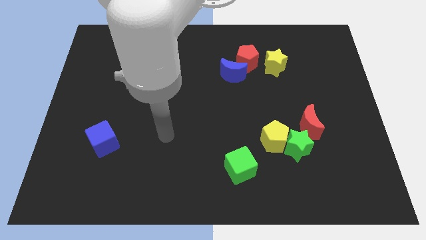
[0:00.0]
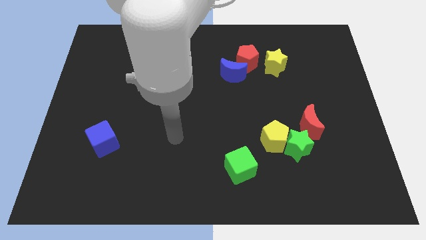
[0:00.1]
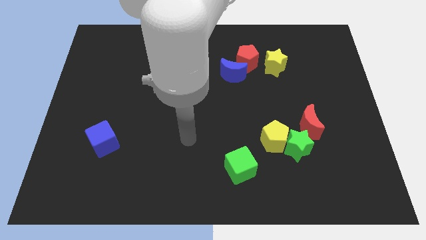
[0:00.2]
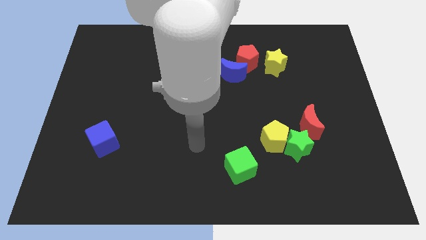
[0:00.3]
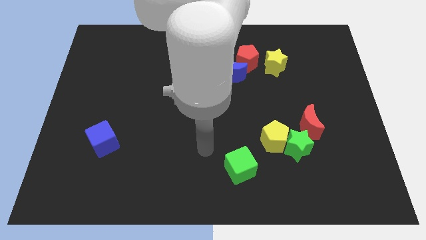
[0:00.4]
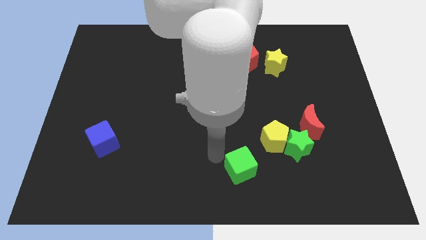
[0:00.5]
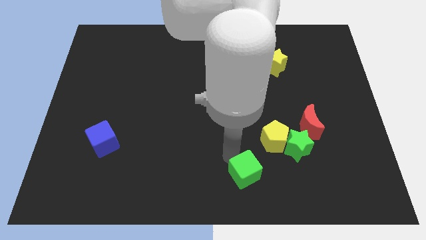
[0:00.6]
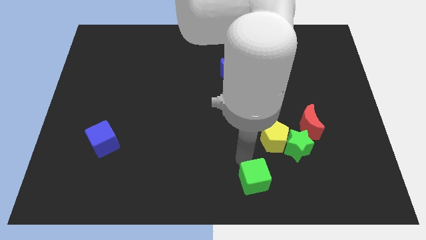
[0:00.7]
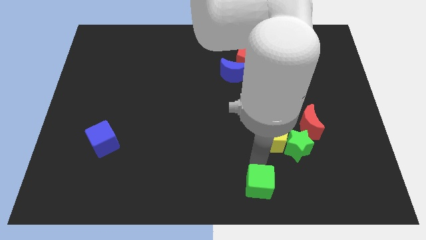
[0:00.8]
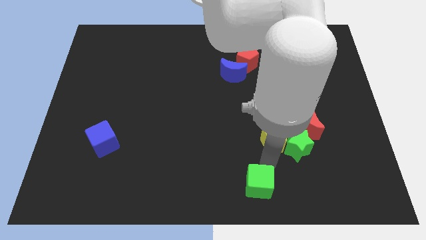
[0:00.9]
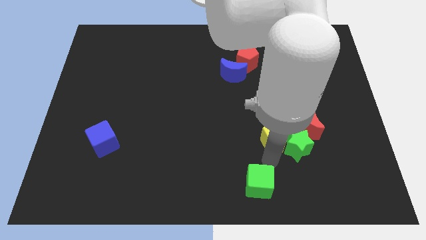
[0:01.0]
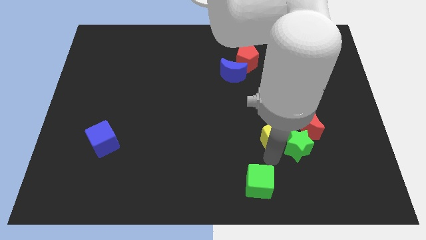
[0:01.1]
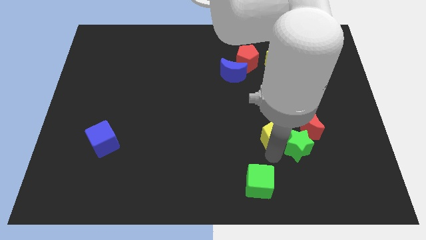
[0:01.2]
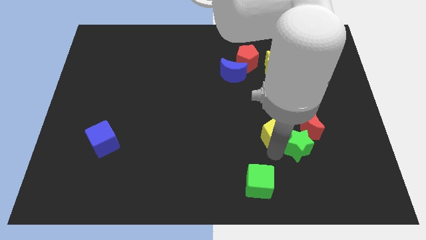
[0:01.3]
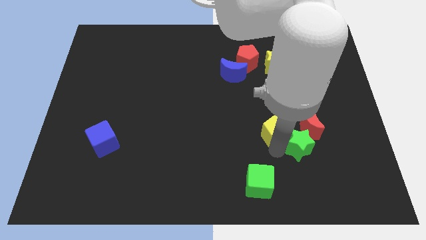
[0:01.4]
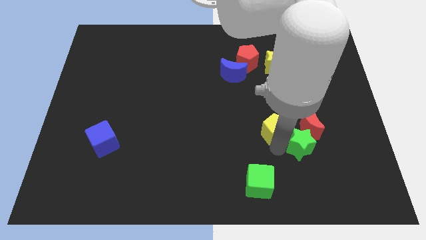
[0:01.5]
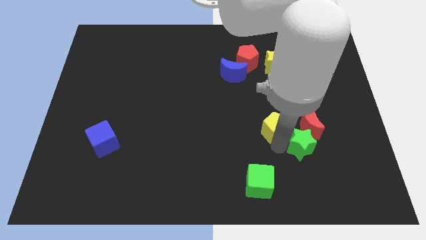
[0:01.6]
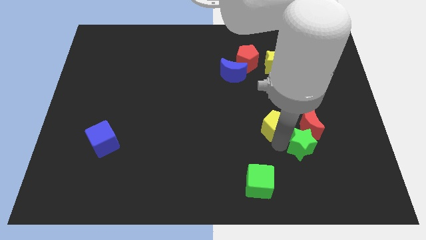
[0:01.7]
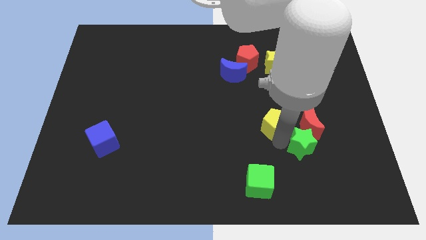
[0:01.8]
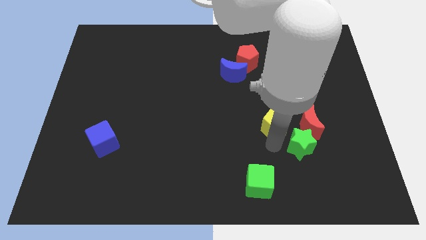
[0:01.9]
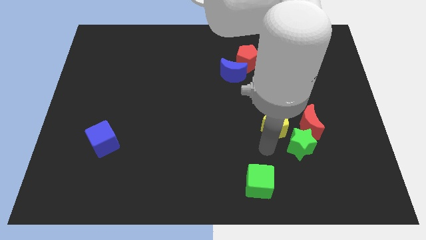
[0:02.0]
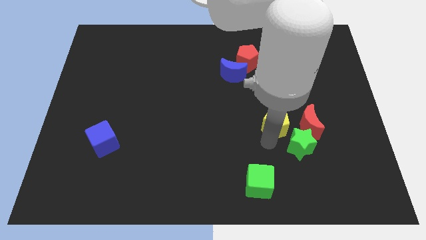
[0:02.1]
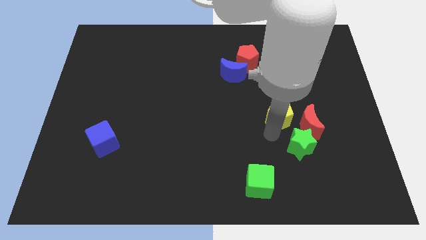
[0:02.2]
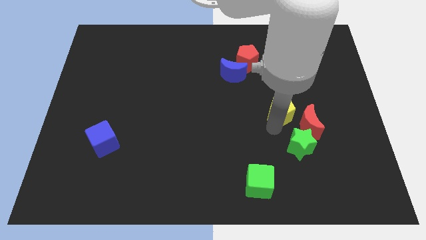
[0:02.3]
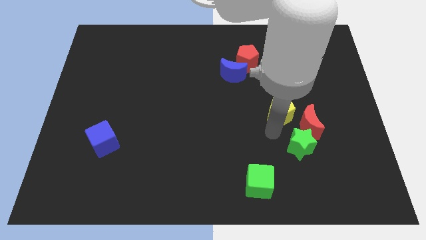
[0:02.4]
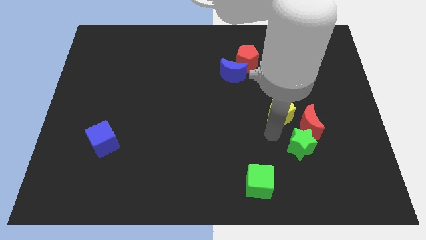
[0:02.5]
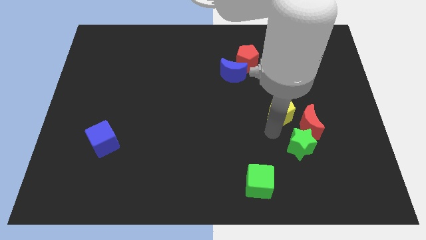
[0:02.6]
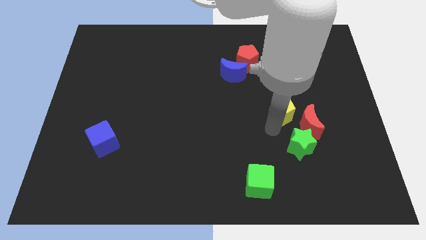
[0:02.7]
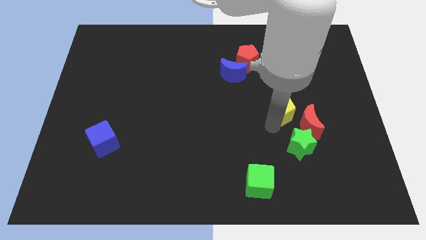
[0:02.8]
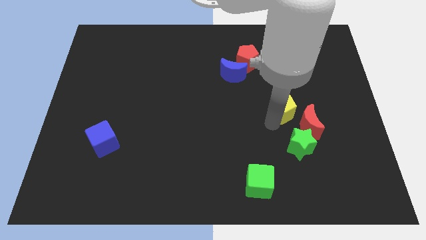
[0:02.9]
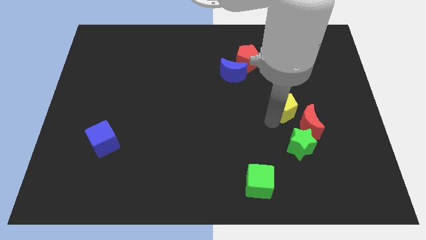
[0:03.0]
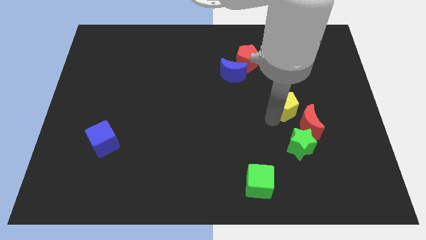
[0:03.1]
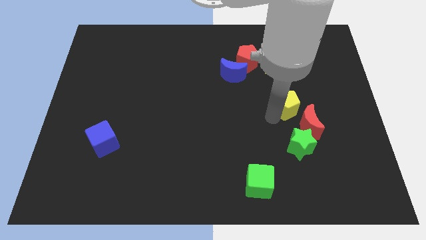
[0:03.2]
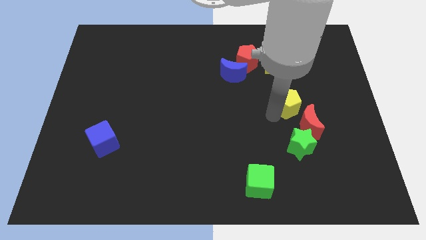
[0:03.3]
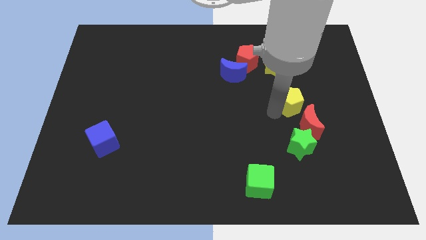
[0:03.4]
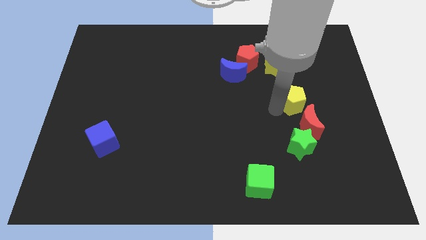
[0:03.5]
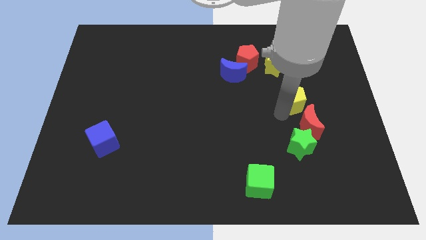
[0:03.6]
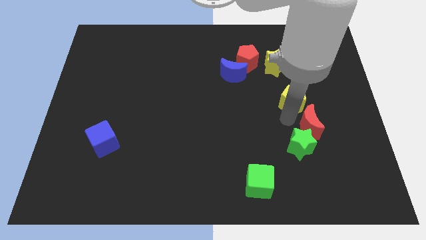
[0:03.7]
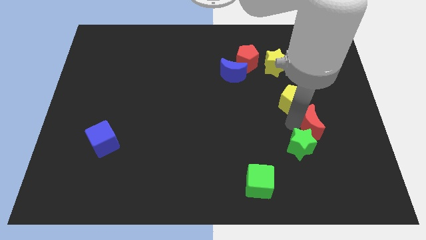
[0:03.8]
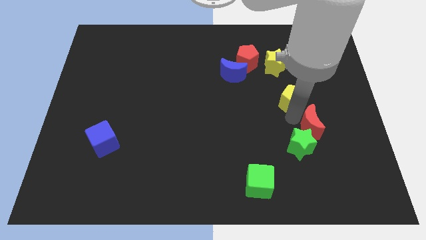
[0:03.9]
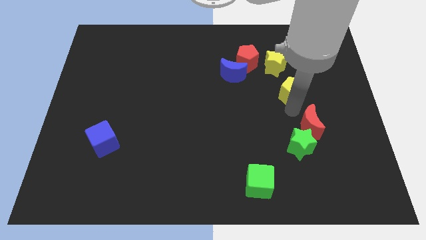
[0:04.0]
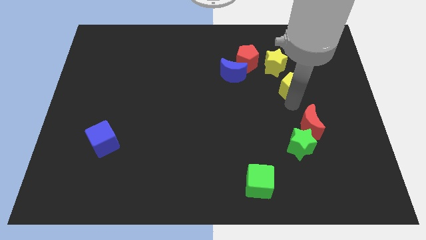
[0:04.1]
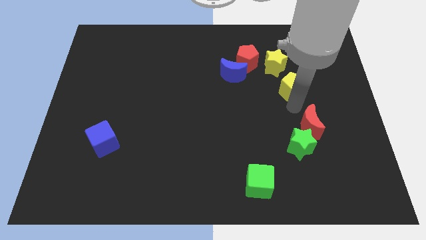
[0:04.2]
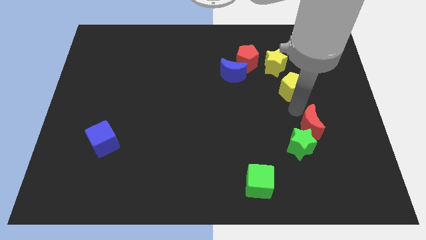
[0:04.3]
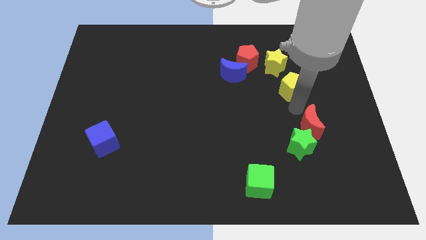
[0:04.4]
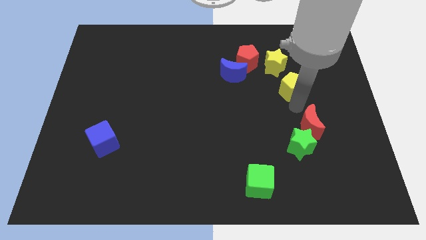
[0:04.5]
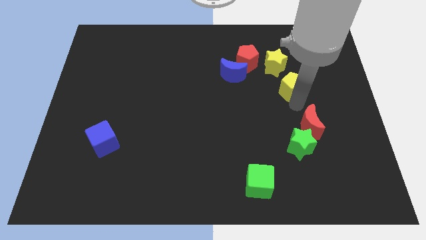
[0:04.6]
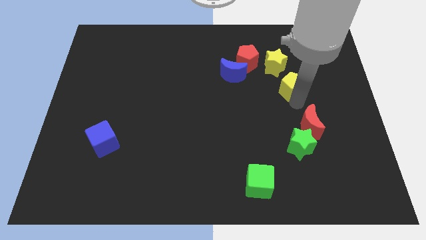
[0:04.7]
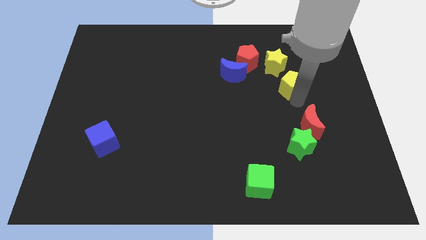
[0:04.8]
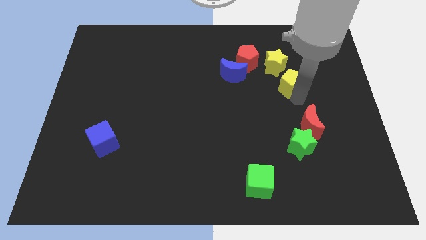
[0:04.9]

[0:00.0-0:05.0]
put the yellow pentagon to the right of the blue moon

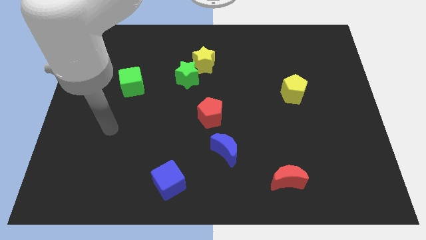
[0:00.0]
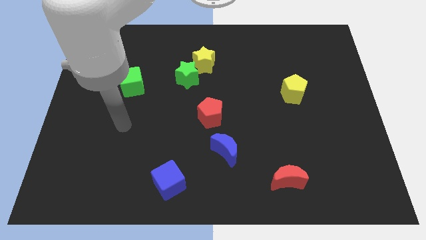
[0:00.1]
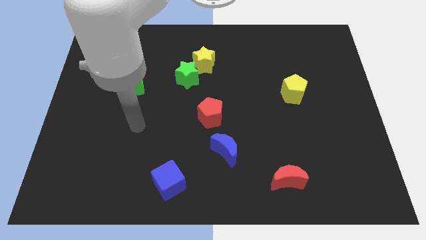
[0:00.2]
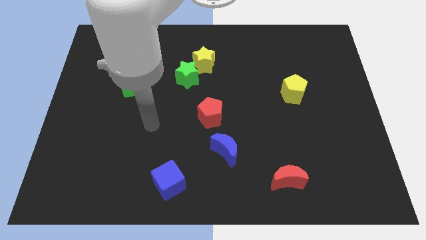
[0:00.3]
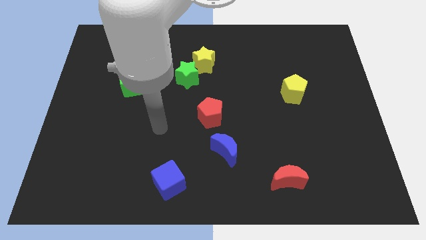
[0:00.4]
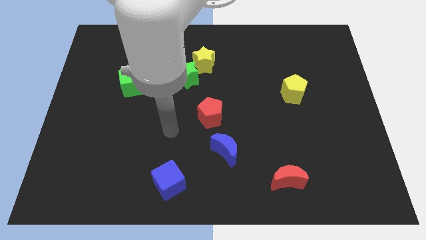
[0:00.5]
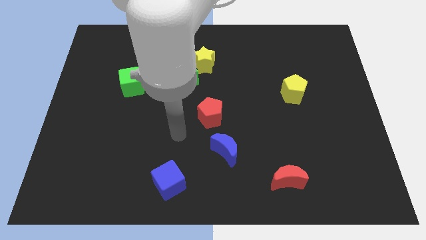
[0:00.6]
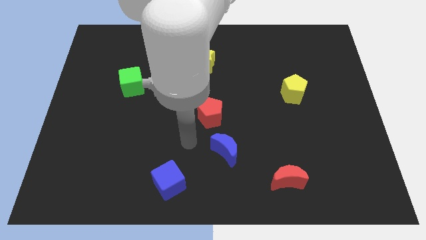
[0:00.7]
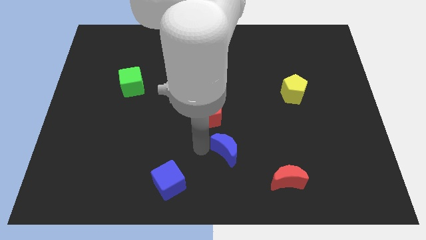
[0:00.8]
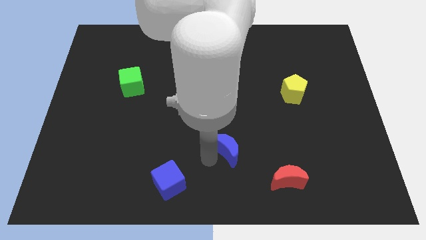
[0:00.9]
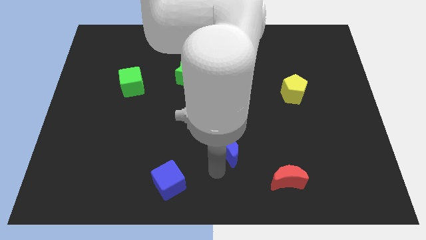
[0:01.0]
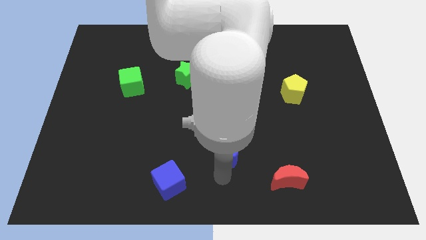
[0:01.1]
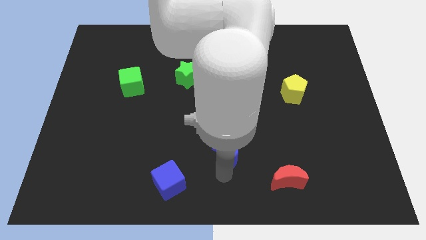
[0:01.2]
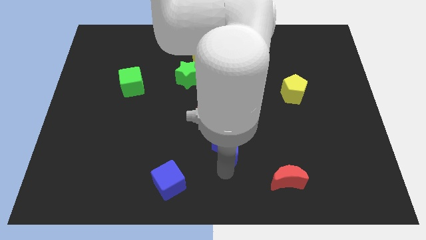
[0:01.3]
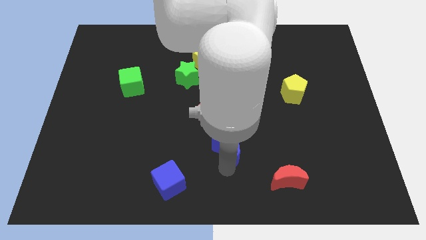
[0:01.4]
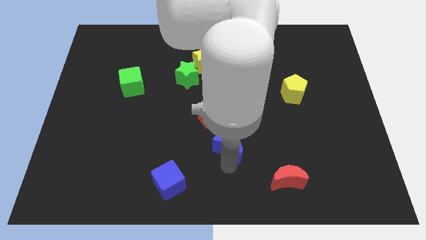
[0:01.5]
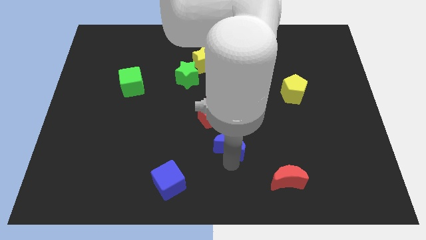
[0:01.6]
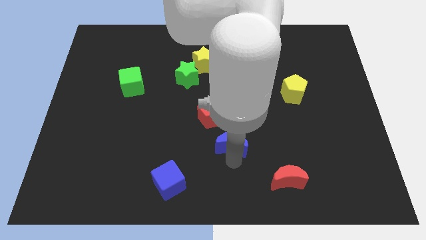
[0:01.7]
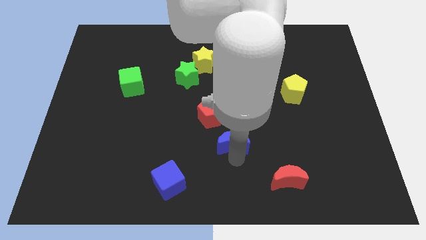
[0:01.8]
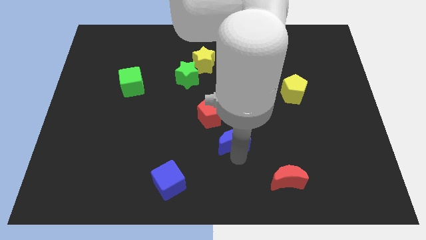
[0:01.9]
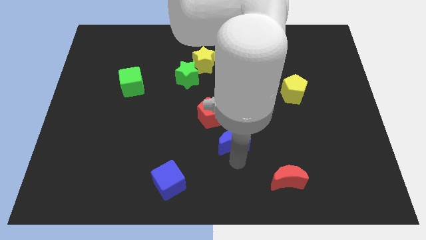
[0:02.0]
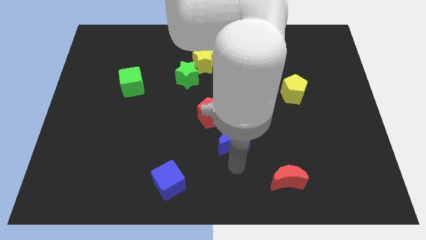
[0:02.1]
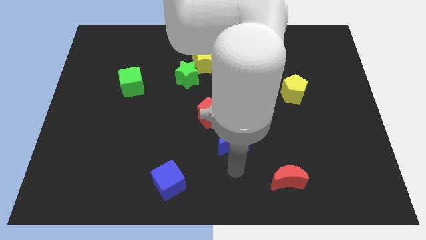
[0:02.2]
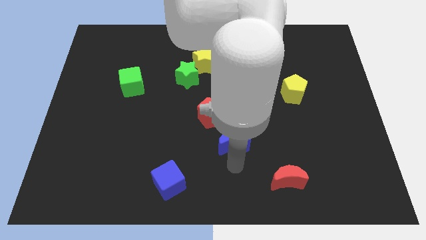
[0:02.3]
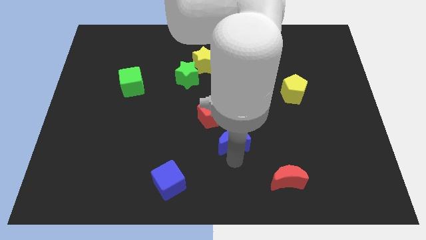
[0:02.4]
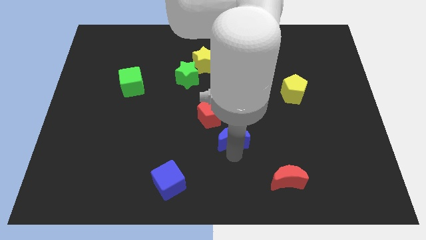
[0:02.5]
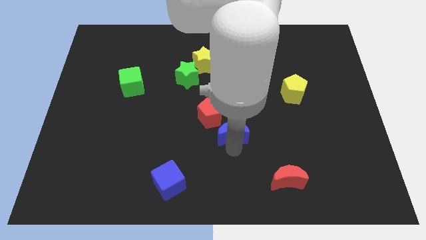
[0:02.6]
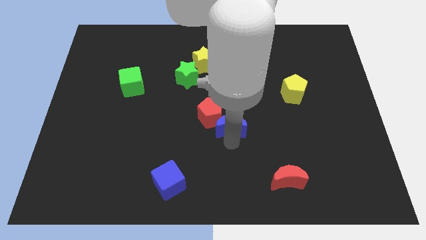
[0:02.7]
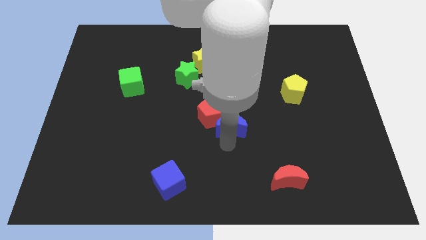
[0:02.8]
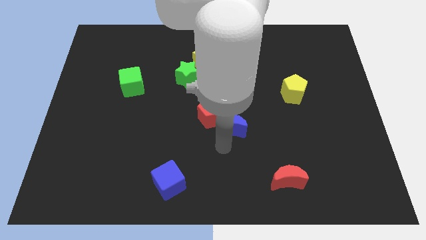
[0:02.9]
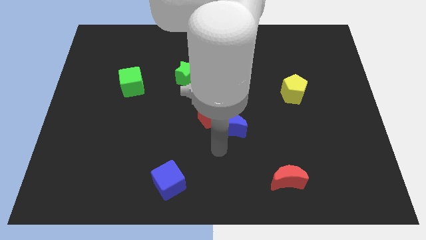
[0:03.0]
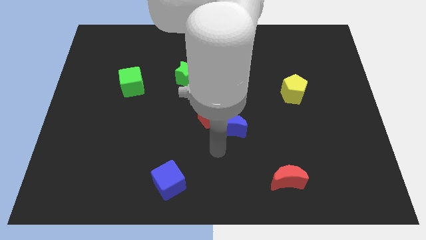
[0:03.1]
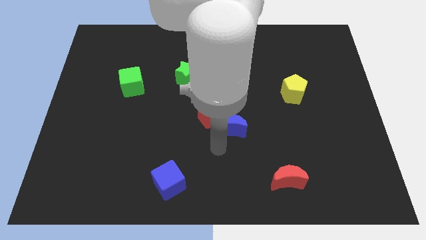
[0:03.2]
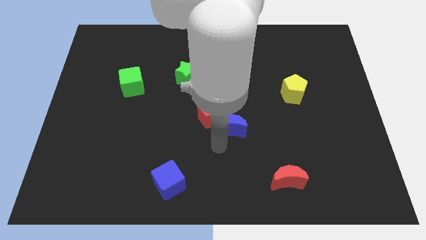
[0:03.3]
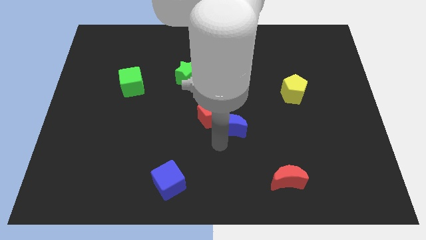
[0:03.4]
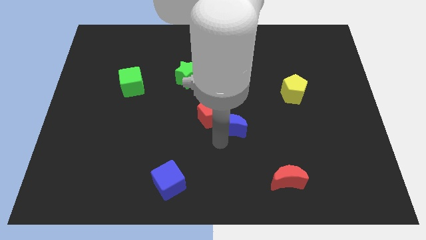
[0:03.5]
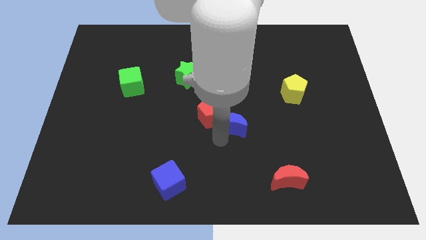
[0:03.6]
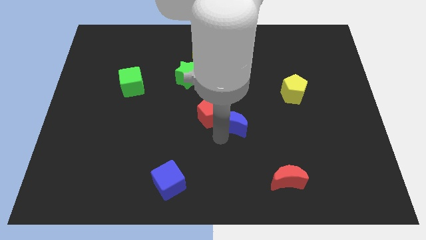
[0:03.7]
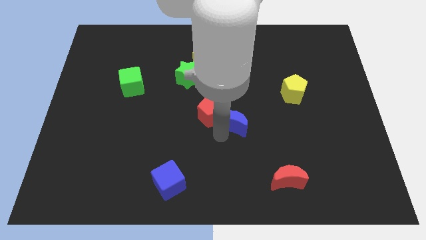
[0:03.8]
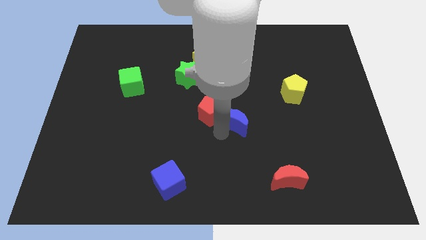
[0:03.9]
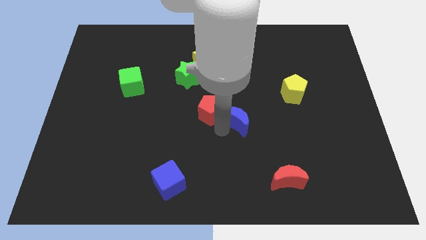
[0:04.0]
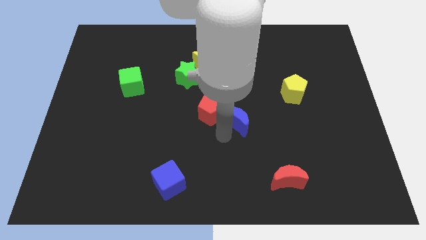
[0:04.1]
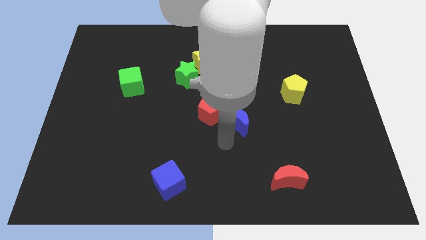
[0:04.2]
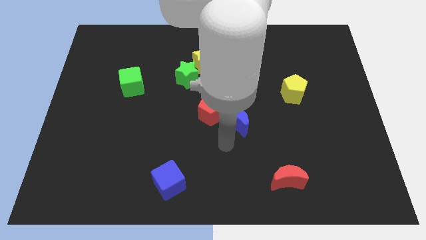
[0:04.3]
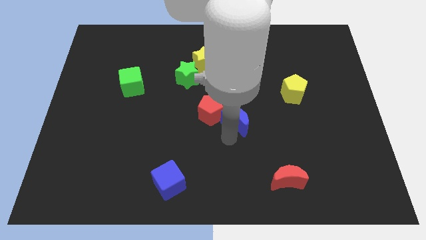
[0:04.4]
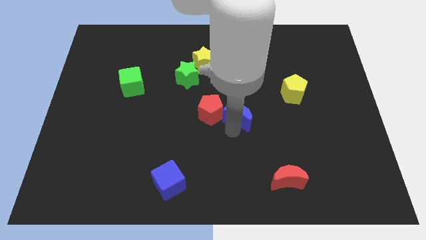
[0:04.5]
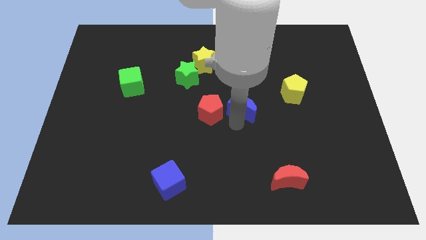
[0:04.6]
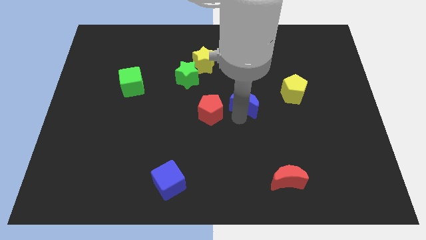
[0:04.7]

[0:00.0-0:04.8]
move the blue moon to the left of the yellow pentagon
